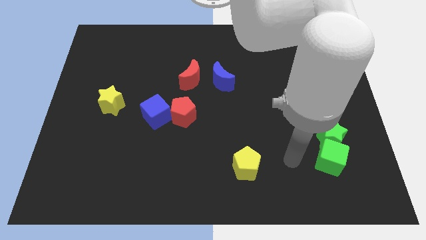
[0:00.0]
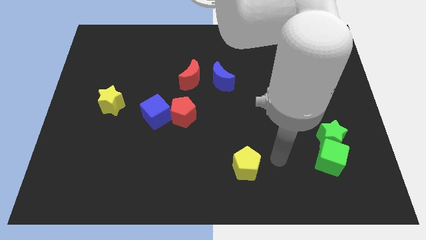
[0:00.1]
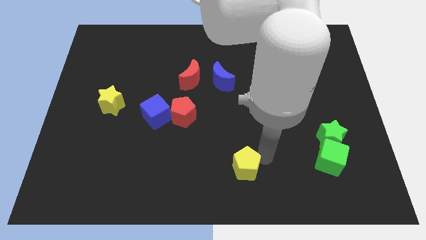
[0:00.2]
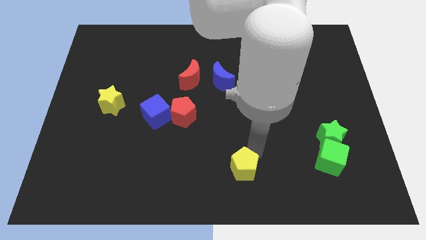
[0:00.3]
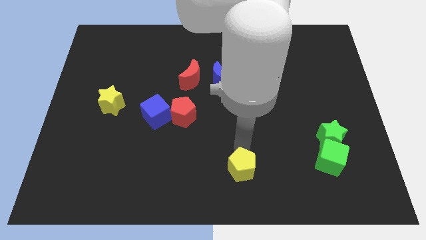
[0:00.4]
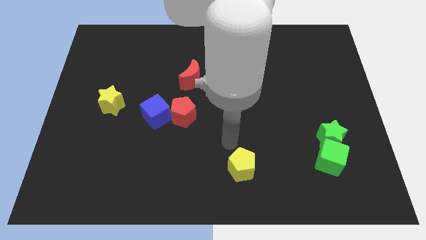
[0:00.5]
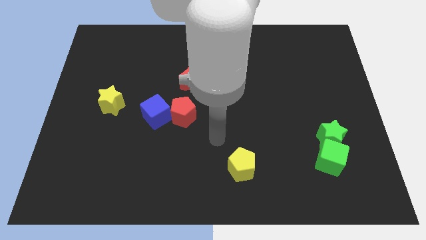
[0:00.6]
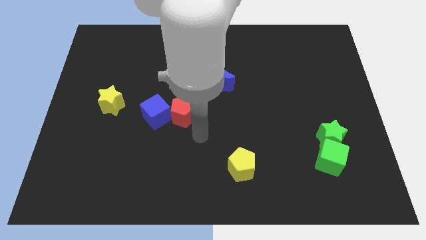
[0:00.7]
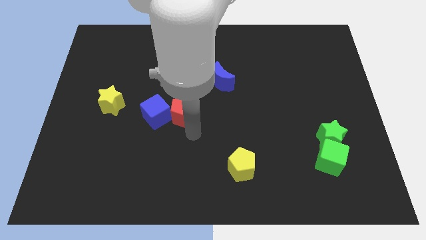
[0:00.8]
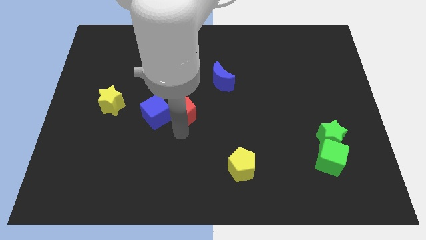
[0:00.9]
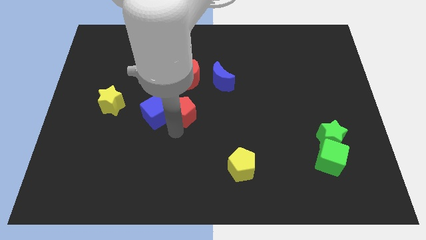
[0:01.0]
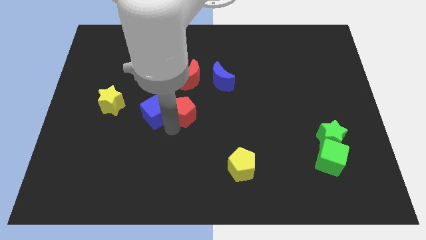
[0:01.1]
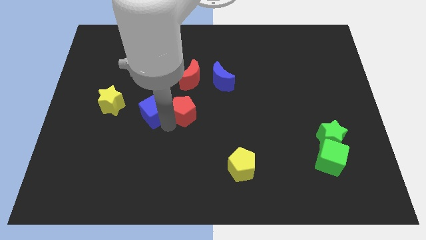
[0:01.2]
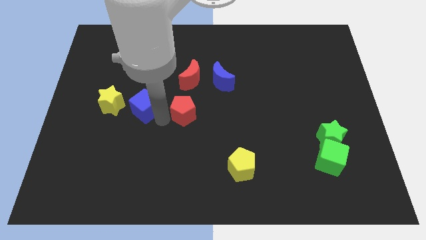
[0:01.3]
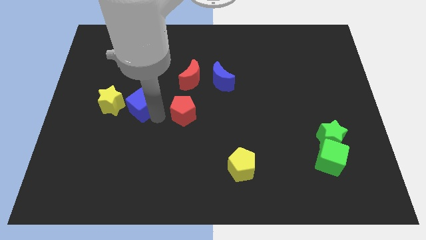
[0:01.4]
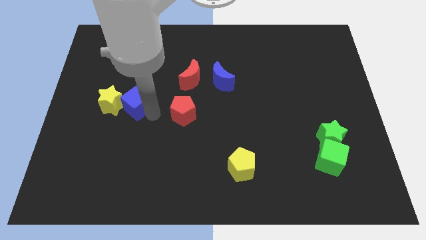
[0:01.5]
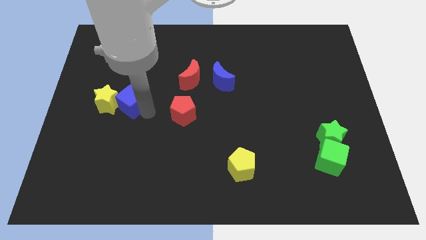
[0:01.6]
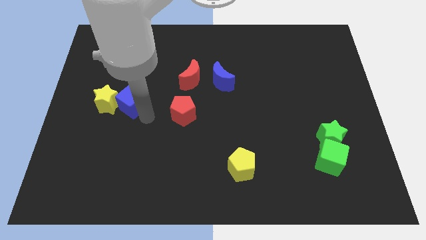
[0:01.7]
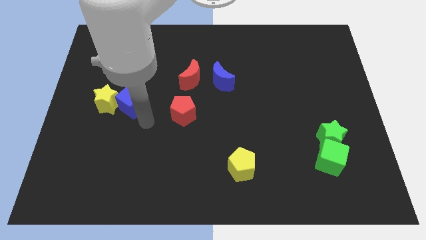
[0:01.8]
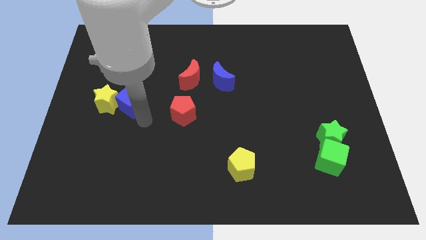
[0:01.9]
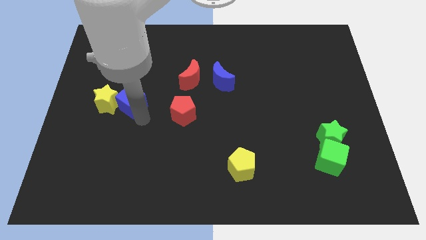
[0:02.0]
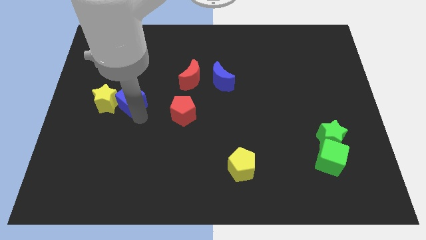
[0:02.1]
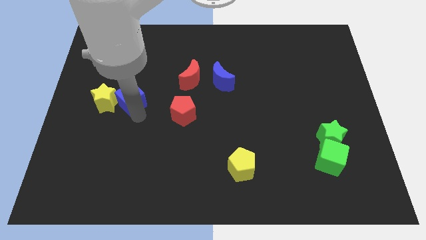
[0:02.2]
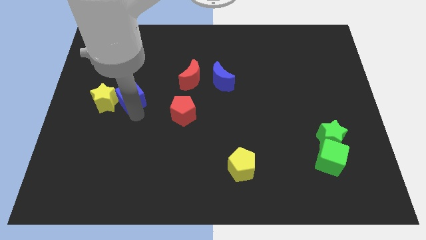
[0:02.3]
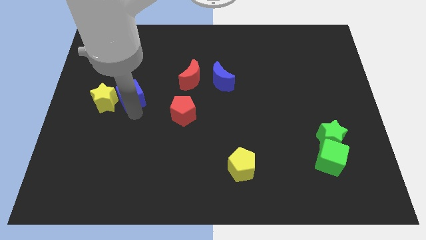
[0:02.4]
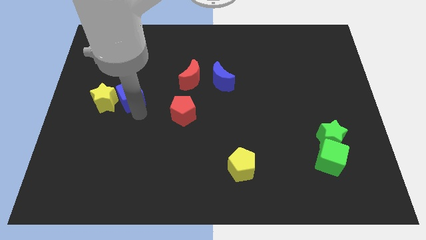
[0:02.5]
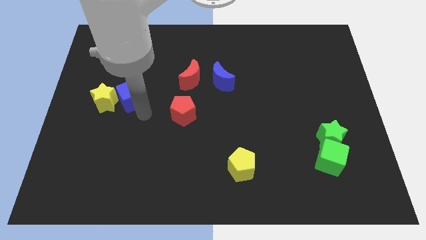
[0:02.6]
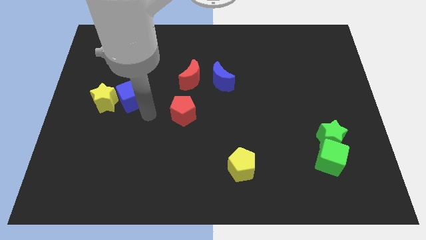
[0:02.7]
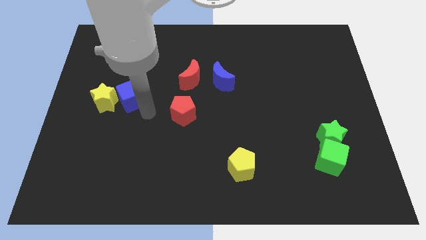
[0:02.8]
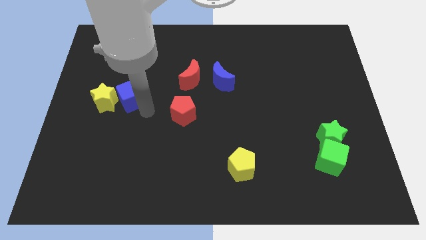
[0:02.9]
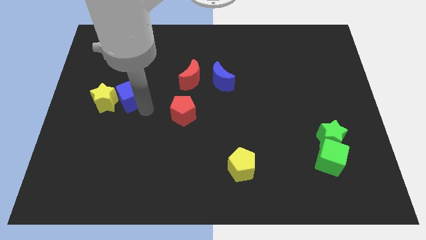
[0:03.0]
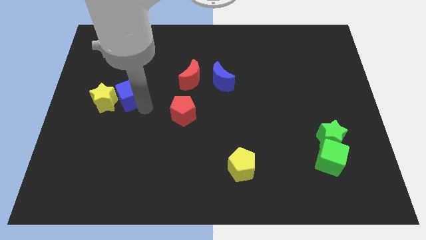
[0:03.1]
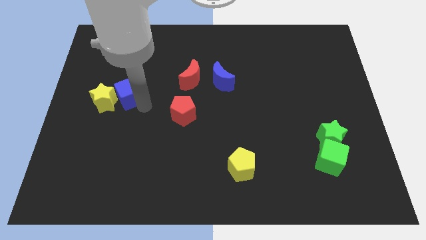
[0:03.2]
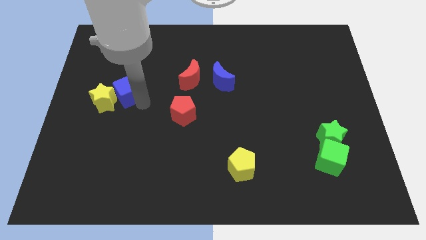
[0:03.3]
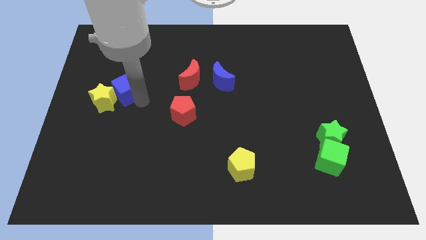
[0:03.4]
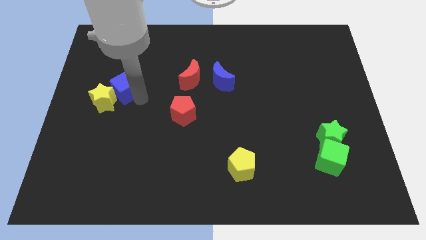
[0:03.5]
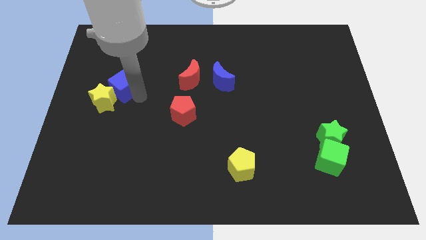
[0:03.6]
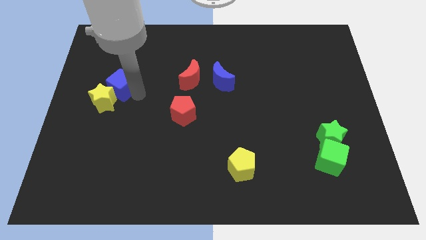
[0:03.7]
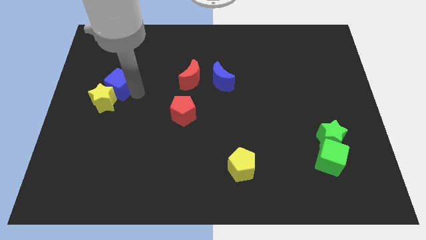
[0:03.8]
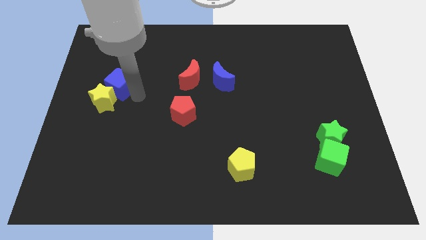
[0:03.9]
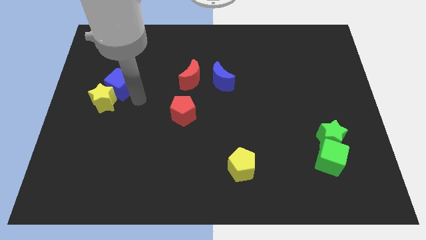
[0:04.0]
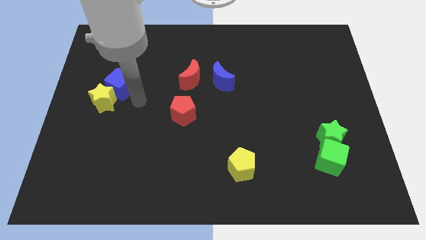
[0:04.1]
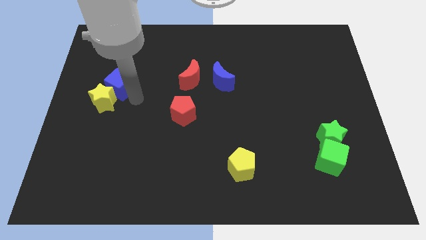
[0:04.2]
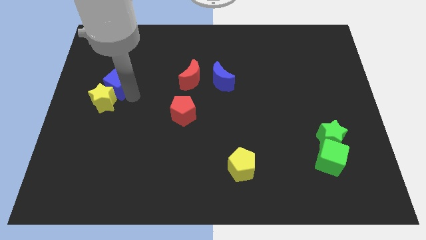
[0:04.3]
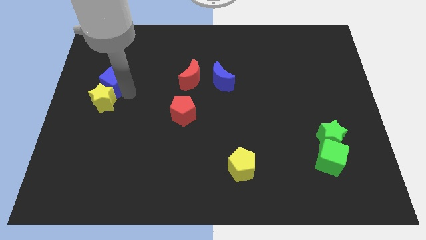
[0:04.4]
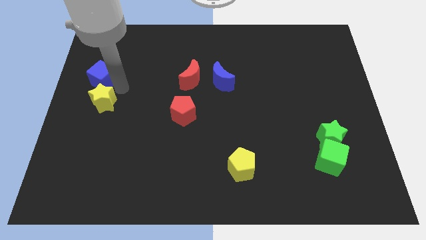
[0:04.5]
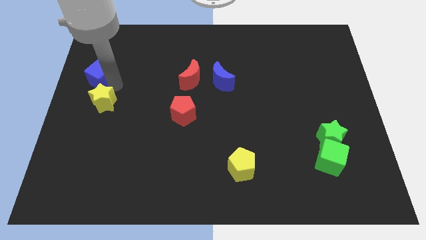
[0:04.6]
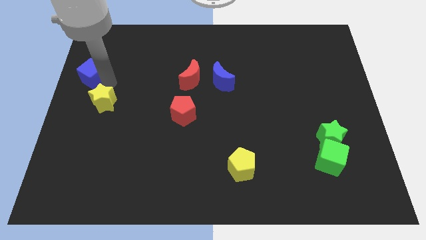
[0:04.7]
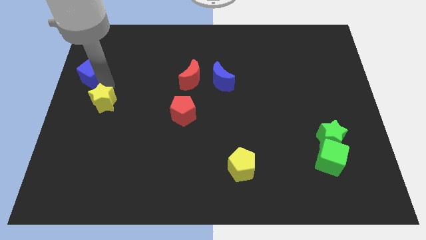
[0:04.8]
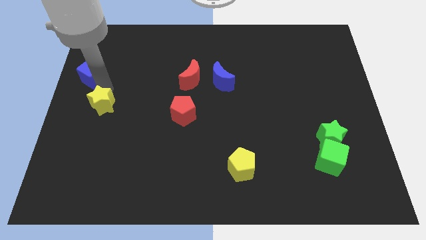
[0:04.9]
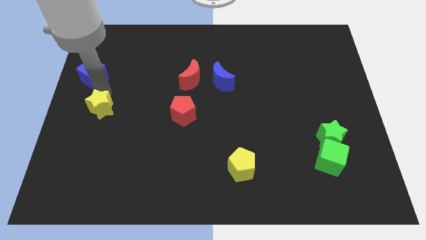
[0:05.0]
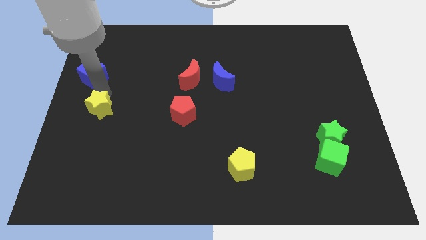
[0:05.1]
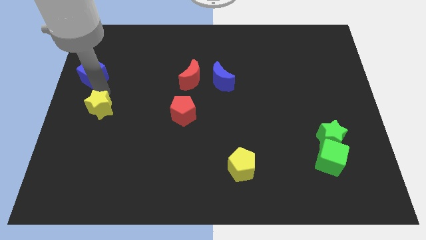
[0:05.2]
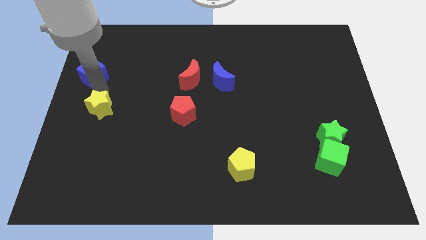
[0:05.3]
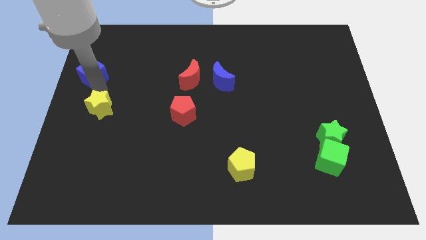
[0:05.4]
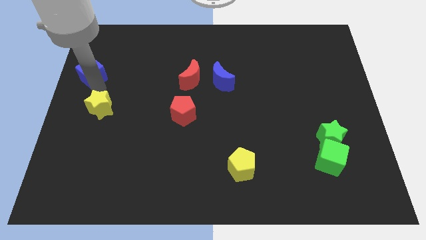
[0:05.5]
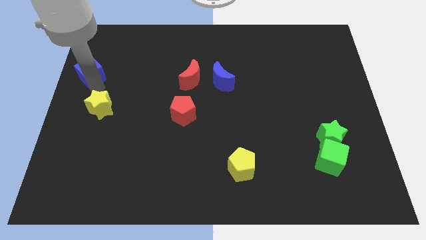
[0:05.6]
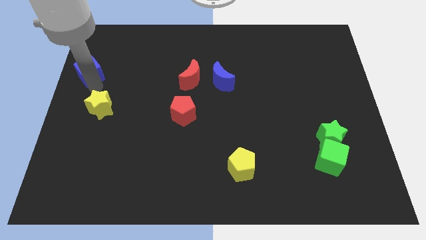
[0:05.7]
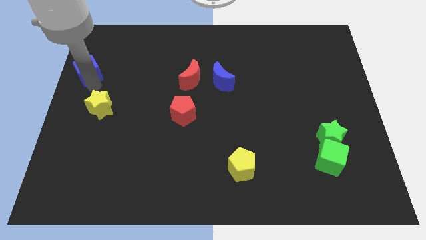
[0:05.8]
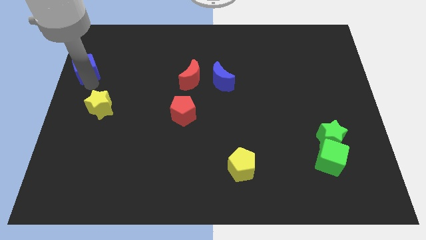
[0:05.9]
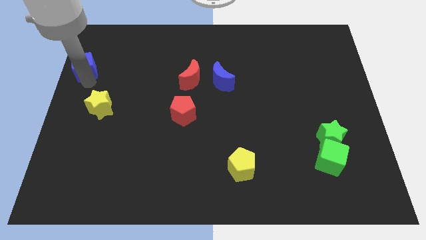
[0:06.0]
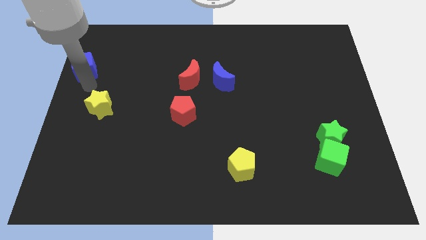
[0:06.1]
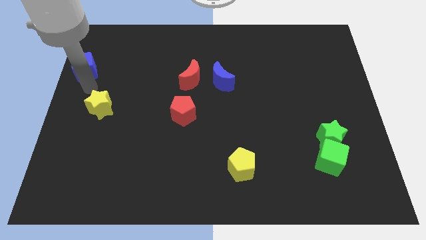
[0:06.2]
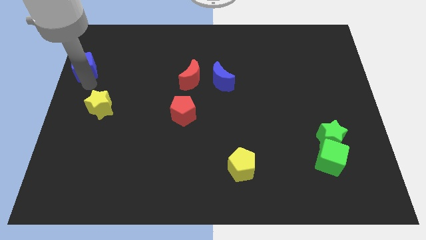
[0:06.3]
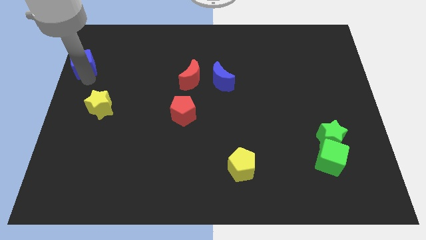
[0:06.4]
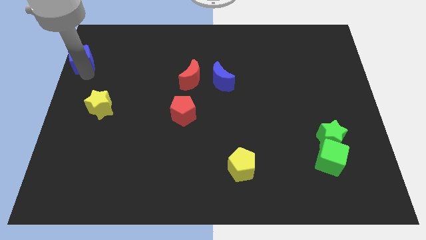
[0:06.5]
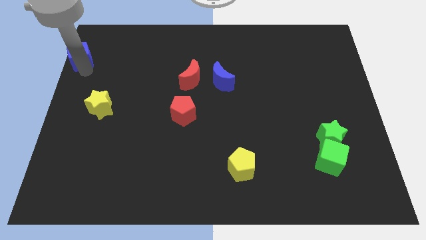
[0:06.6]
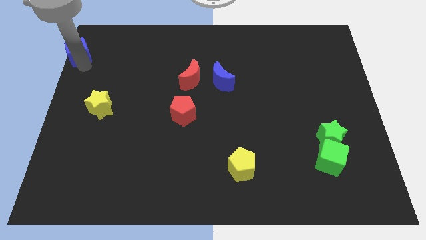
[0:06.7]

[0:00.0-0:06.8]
push the blue cube to the top left of the board
